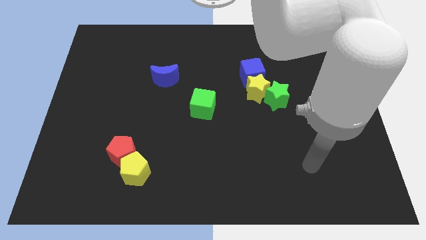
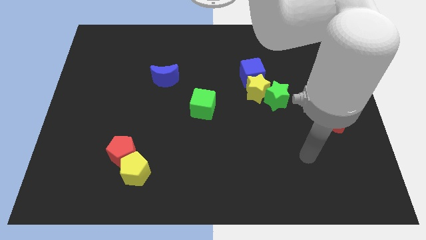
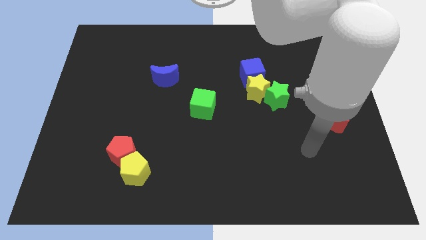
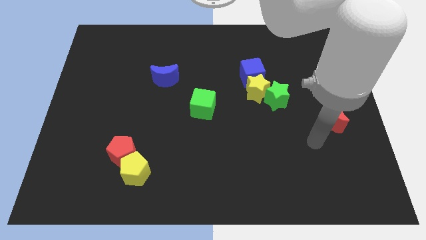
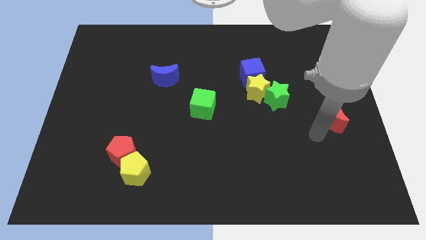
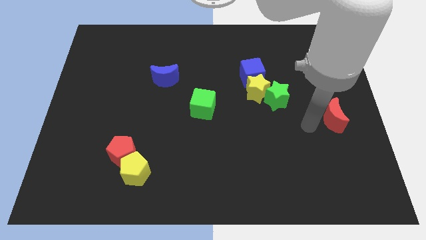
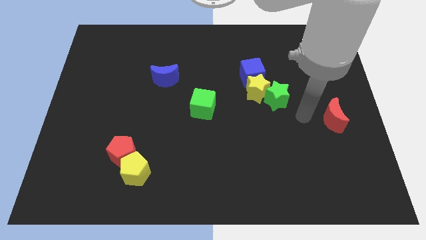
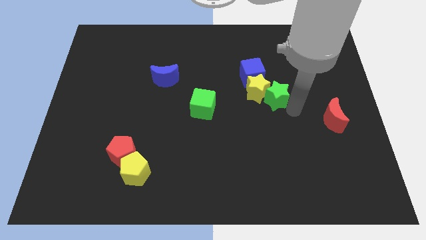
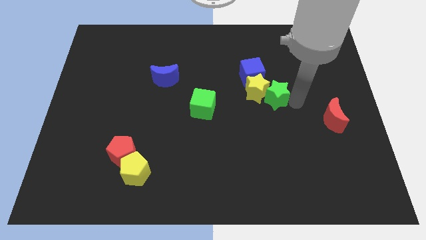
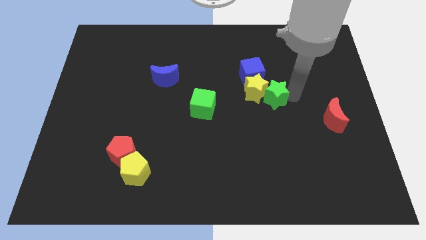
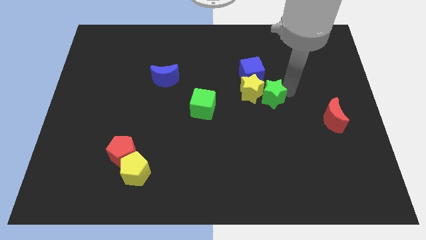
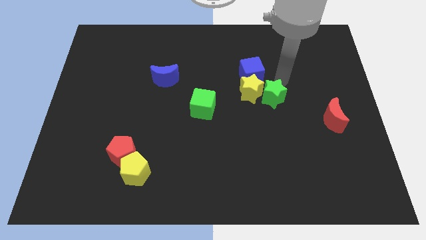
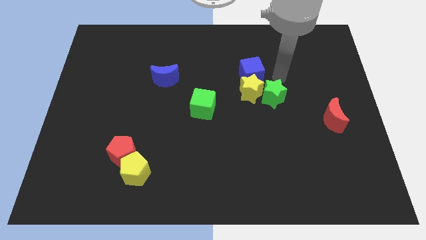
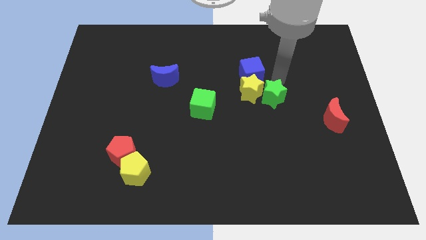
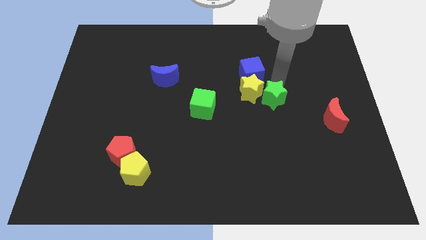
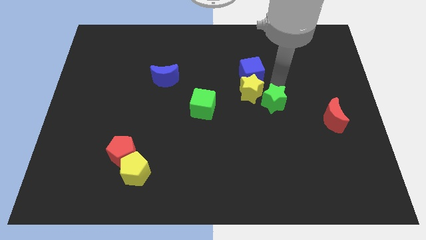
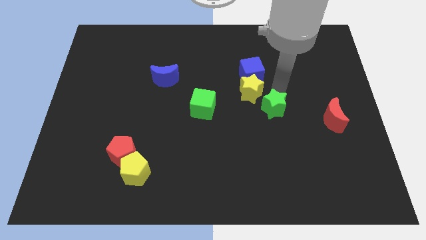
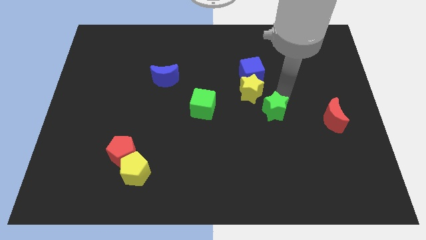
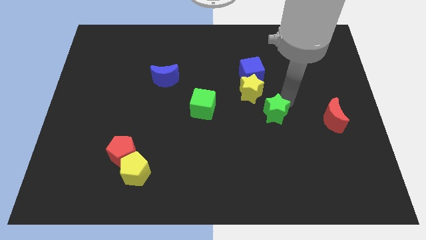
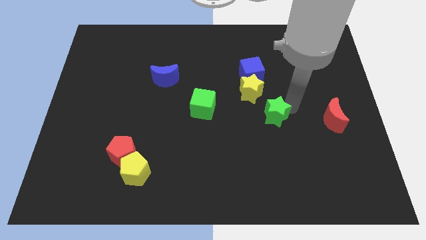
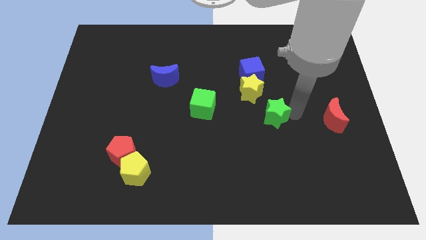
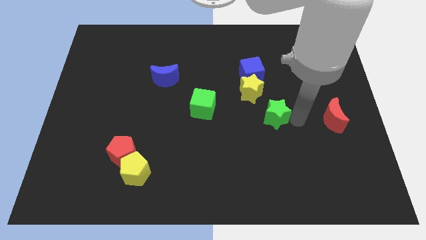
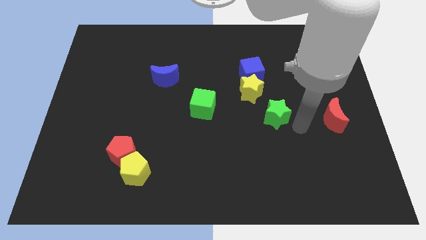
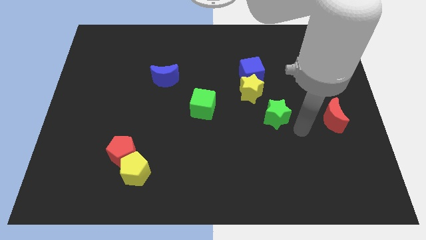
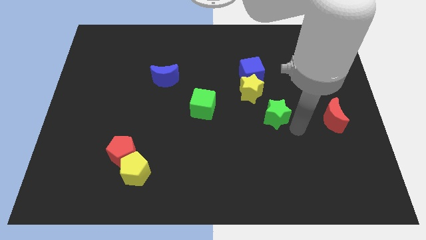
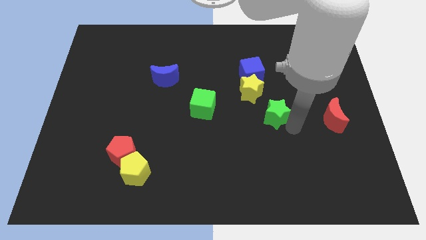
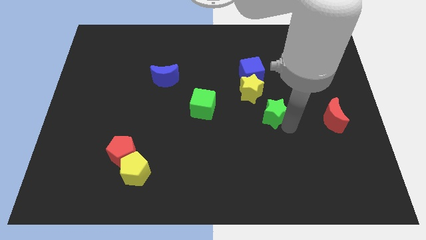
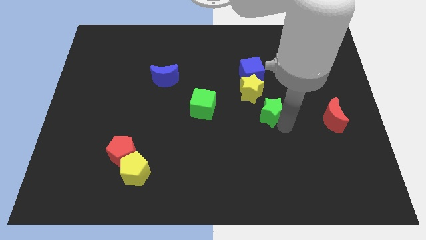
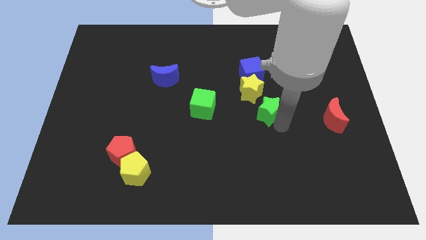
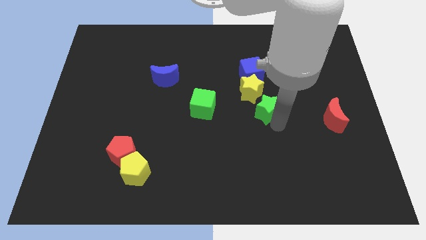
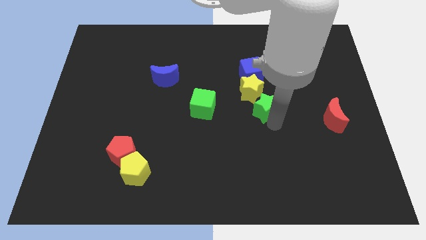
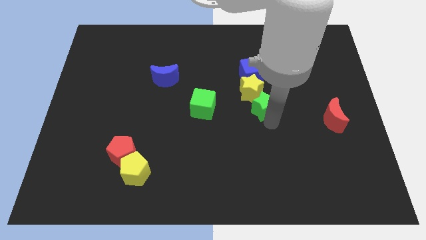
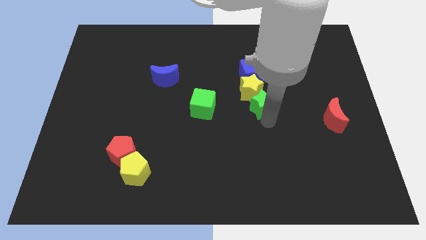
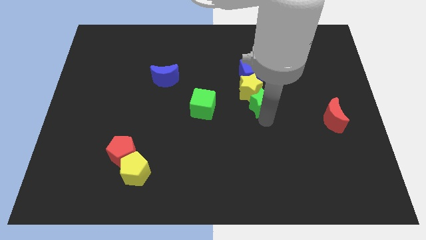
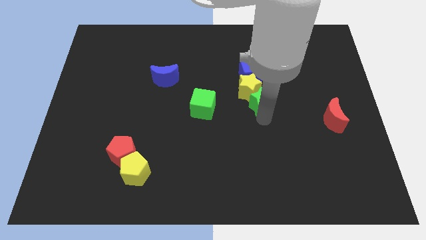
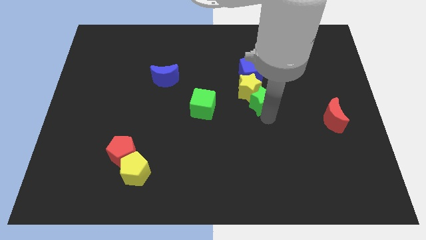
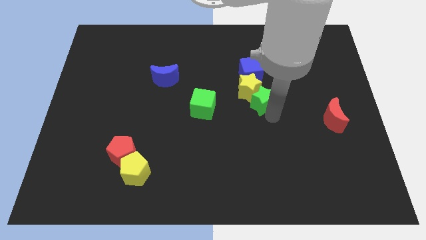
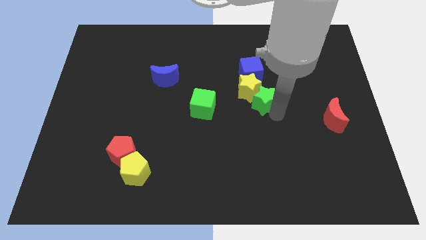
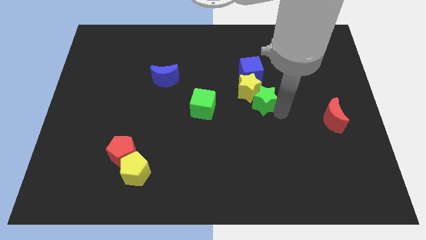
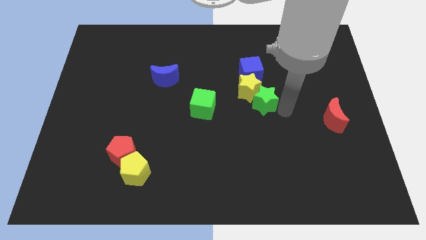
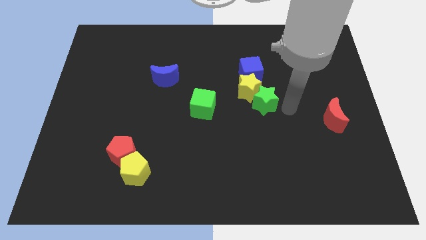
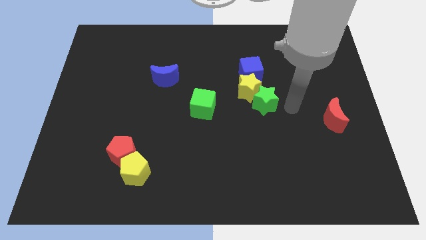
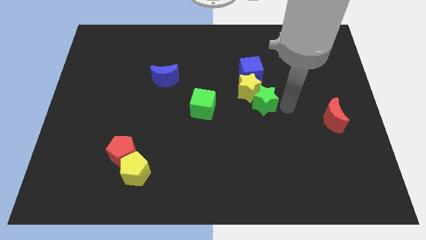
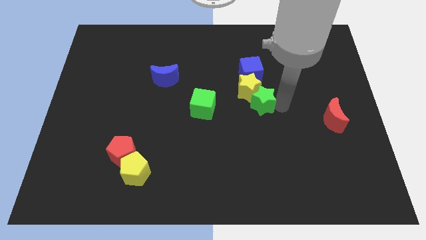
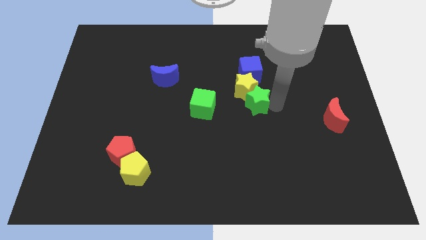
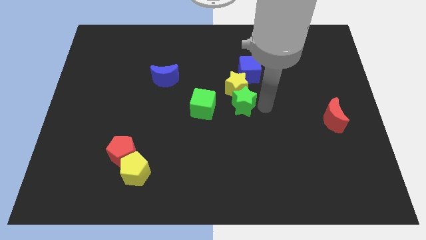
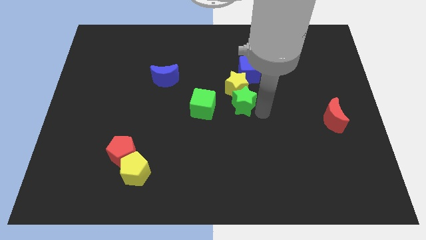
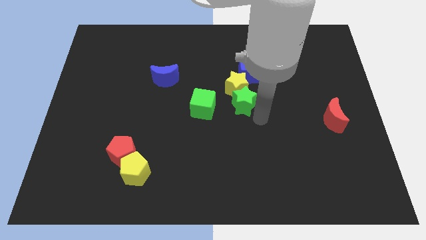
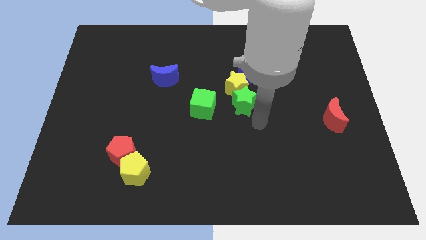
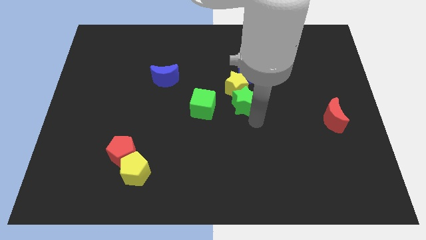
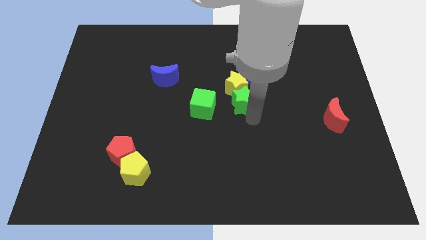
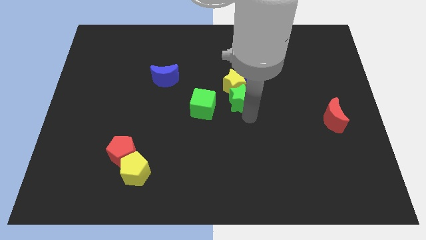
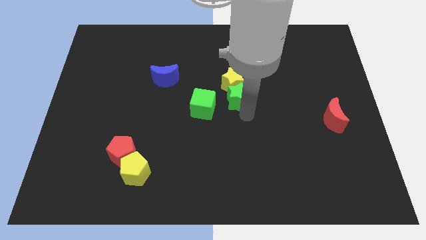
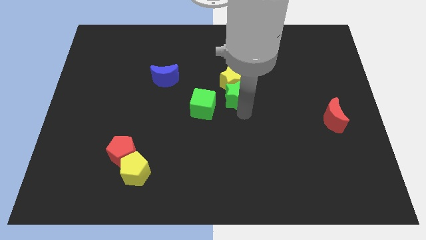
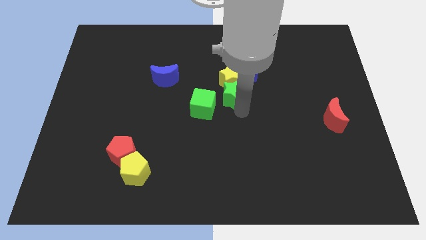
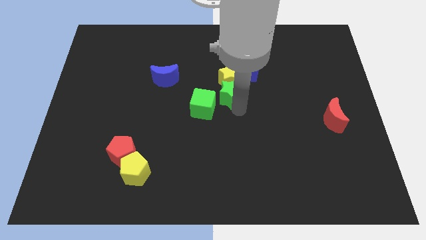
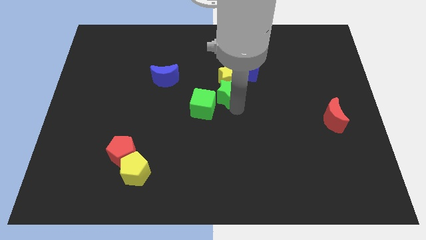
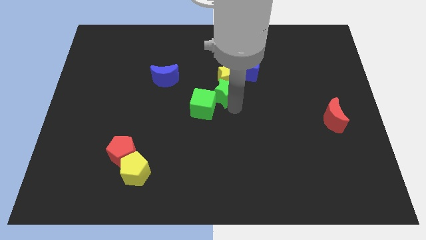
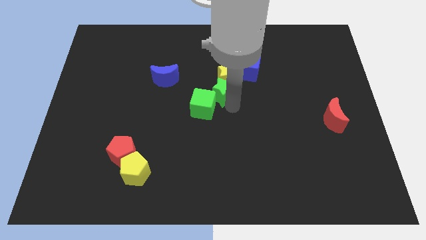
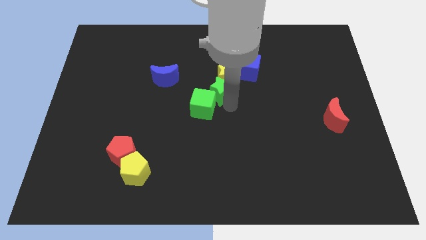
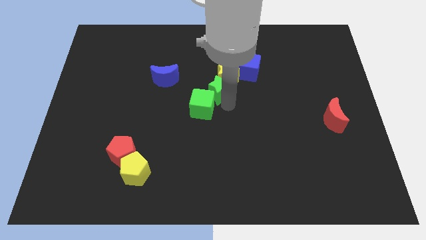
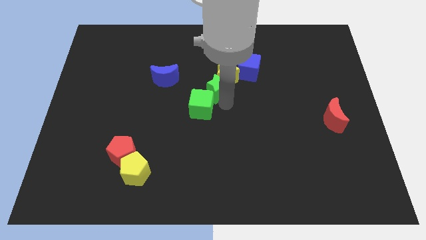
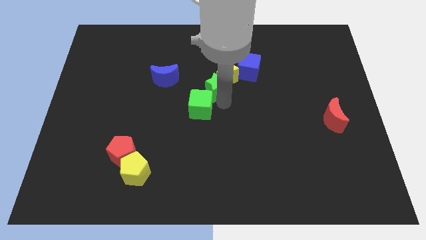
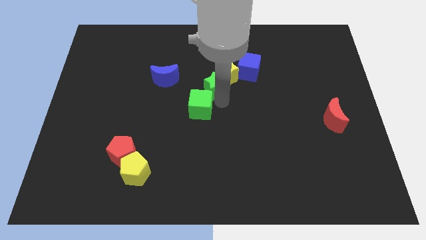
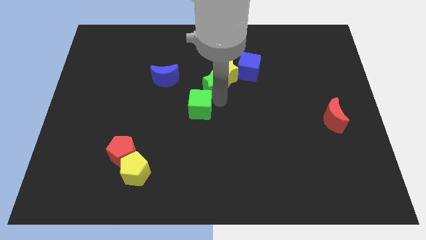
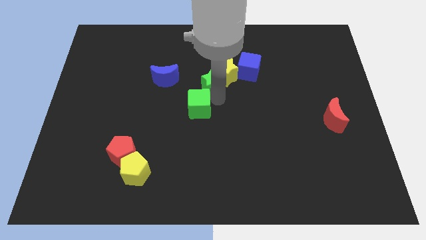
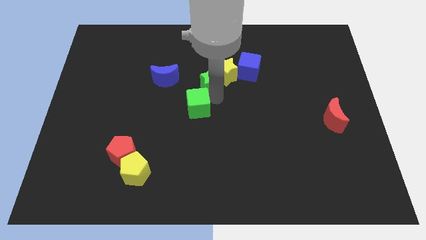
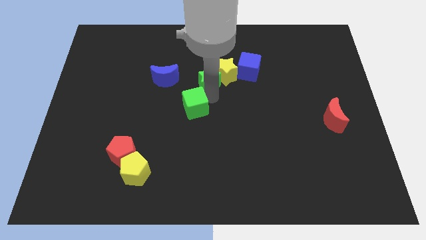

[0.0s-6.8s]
slide the green star just left of the blue cube
